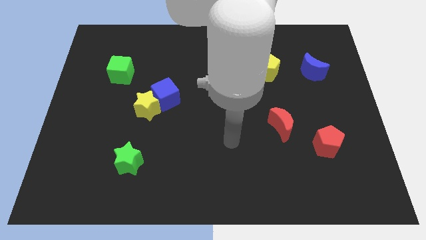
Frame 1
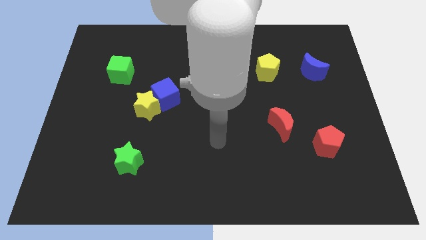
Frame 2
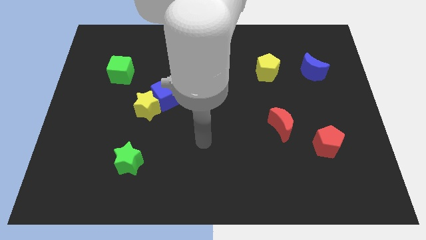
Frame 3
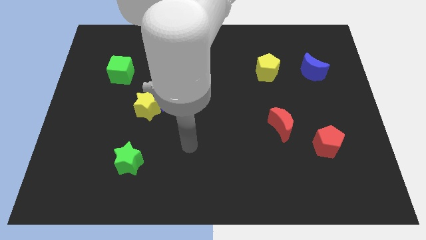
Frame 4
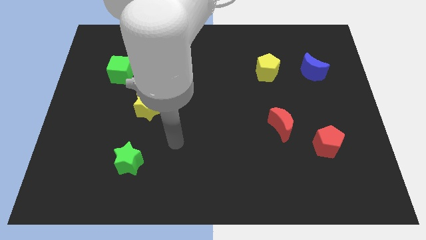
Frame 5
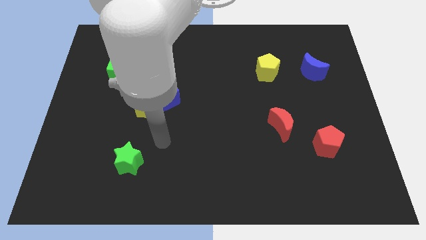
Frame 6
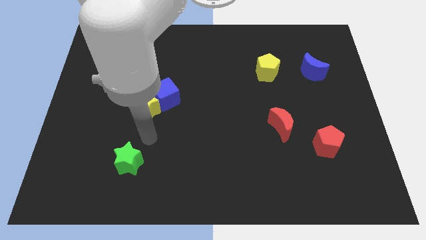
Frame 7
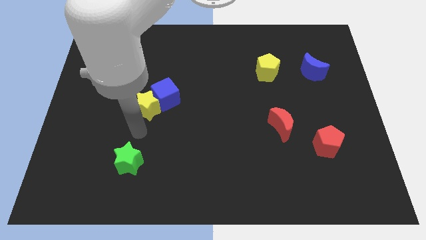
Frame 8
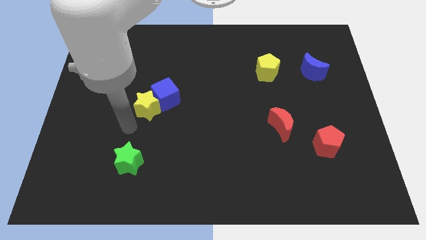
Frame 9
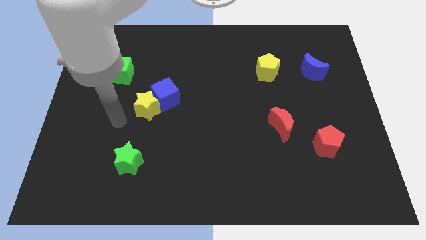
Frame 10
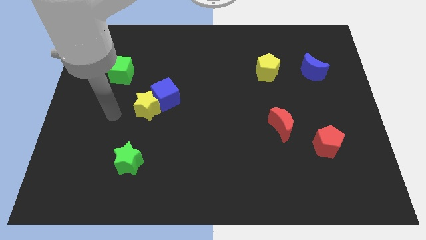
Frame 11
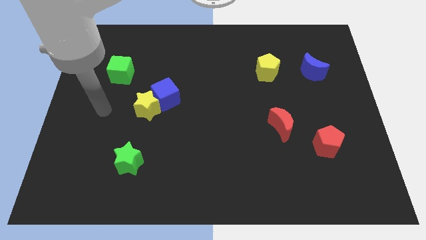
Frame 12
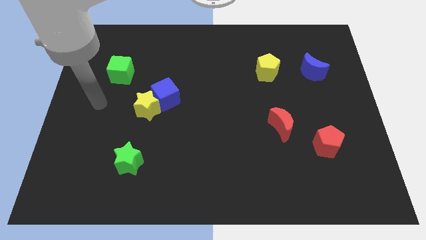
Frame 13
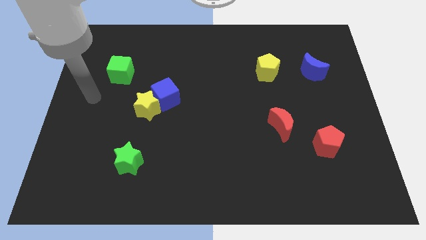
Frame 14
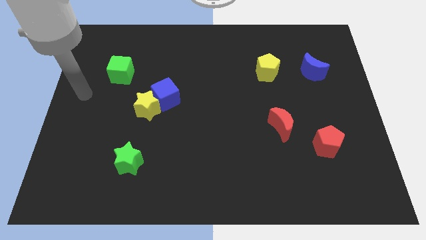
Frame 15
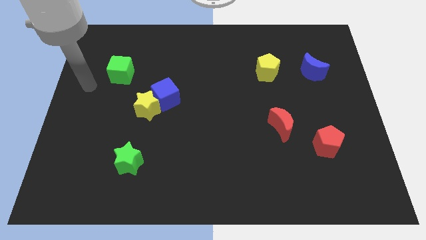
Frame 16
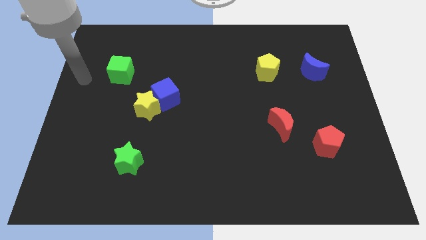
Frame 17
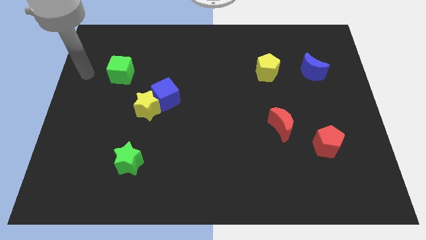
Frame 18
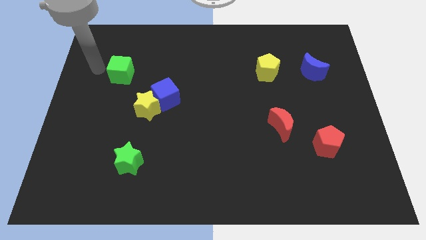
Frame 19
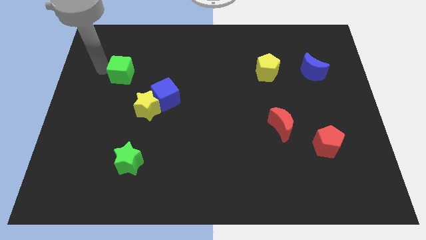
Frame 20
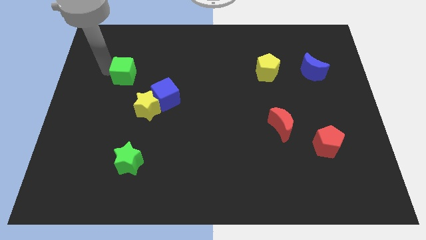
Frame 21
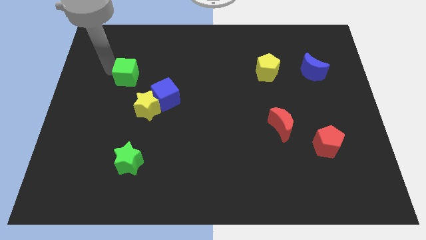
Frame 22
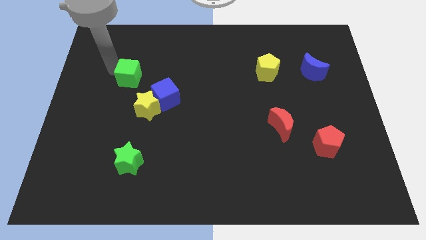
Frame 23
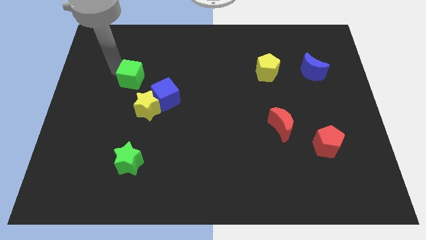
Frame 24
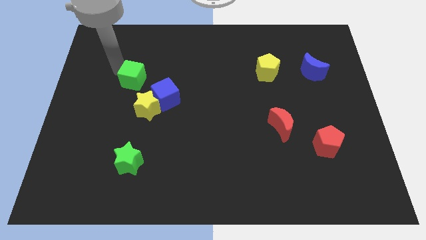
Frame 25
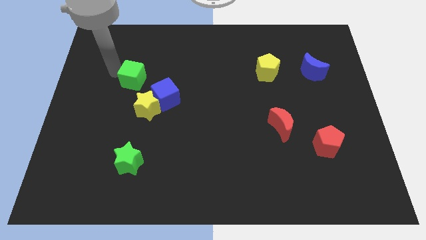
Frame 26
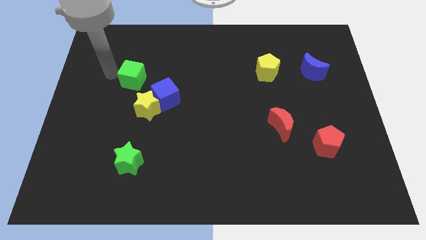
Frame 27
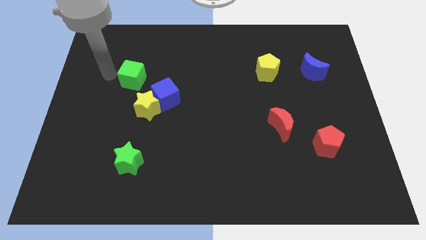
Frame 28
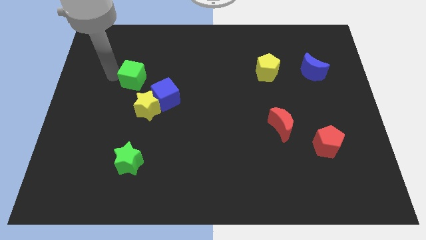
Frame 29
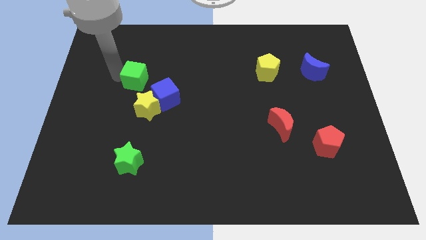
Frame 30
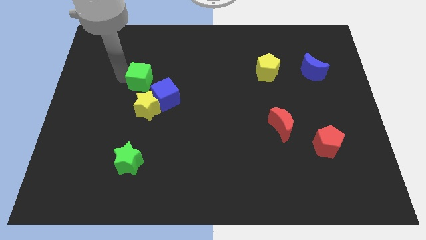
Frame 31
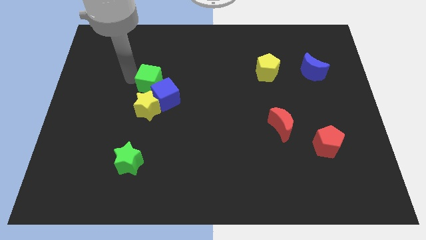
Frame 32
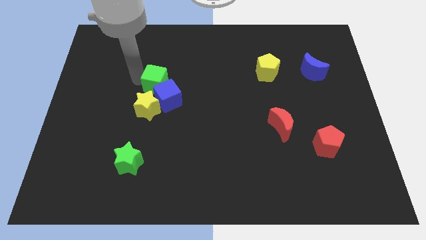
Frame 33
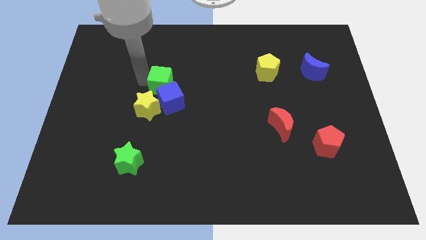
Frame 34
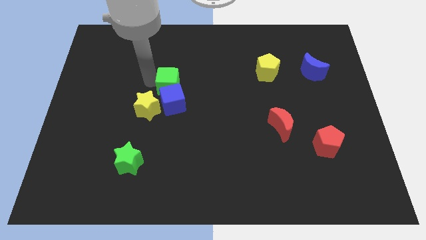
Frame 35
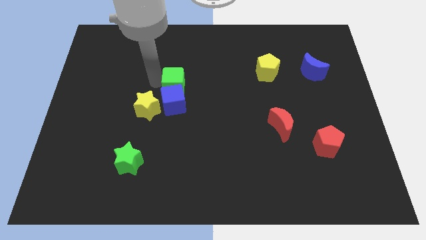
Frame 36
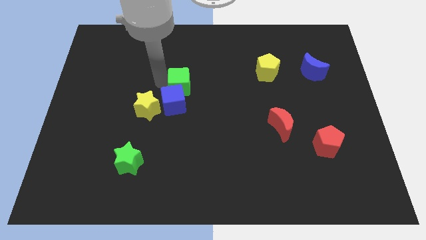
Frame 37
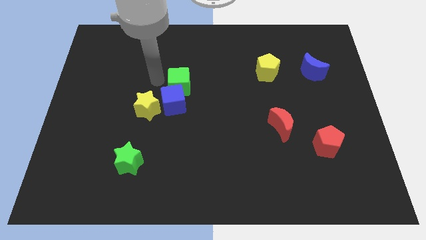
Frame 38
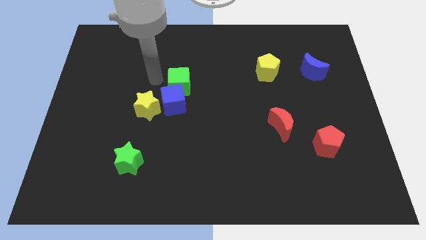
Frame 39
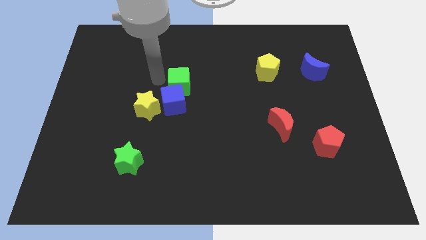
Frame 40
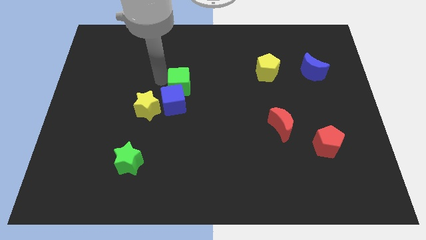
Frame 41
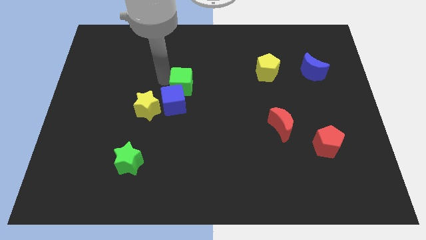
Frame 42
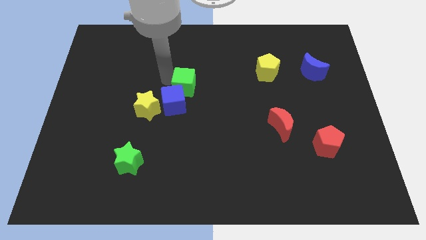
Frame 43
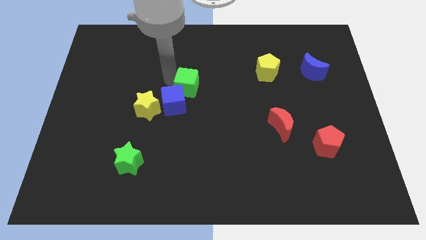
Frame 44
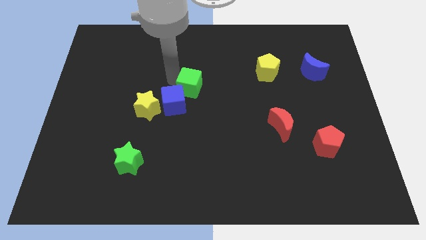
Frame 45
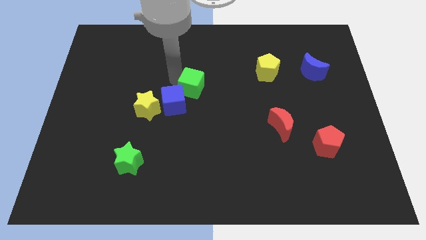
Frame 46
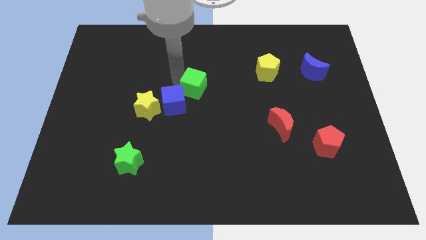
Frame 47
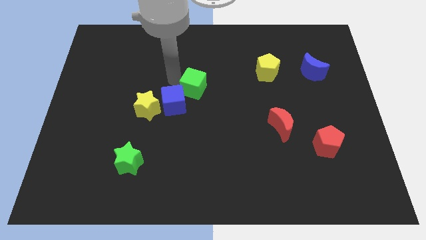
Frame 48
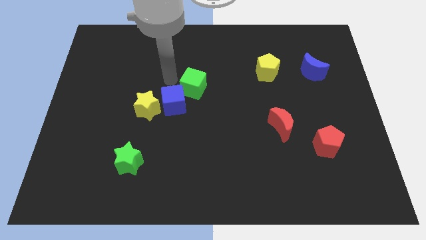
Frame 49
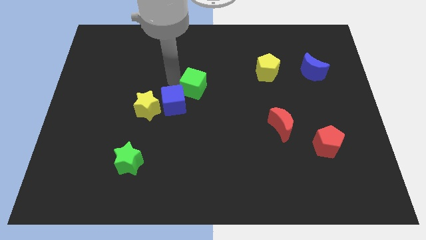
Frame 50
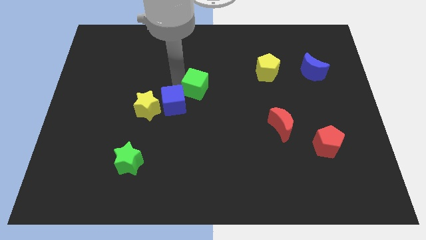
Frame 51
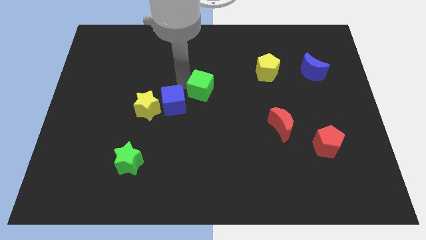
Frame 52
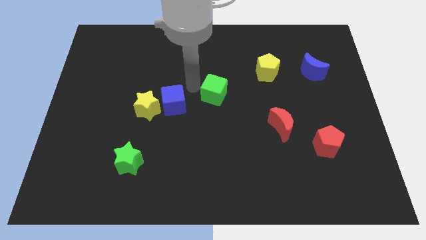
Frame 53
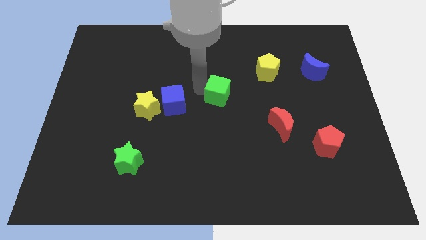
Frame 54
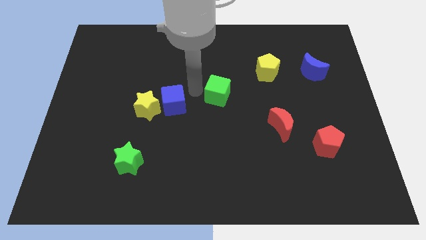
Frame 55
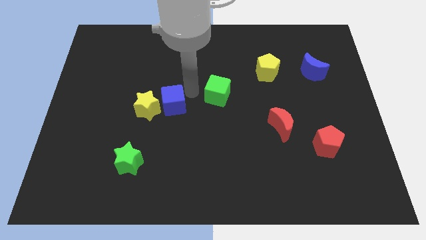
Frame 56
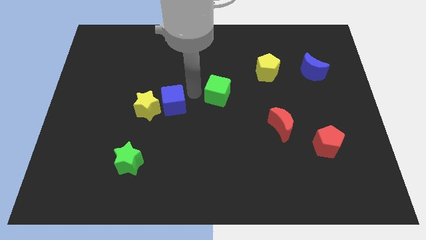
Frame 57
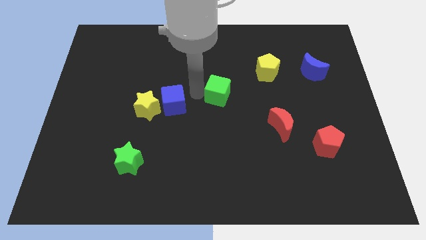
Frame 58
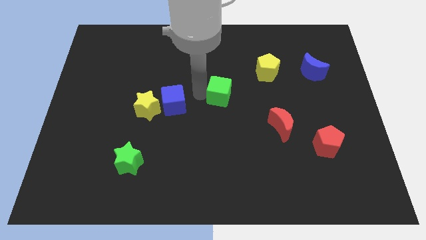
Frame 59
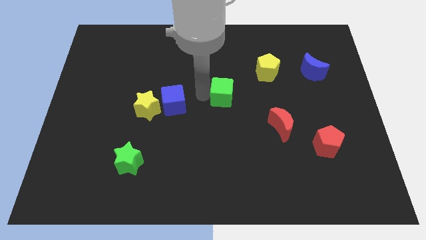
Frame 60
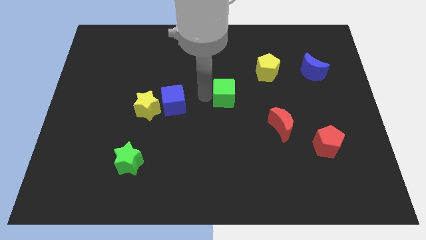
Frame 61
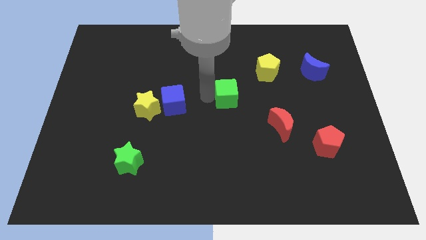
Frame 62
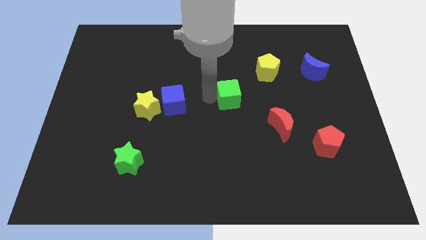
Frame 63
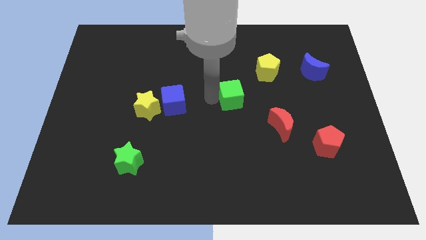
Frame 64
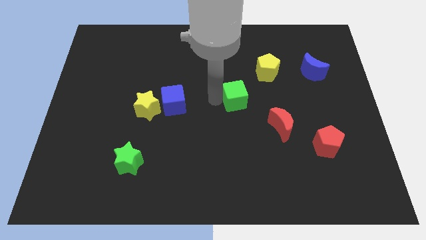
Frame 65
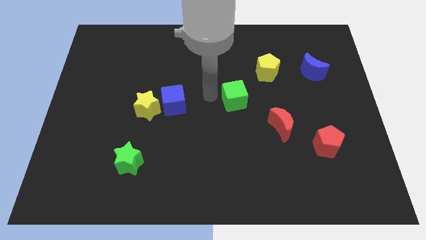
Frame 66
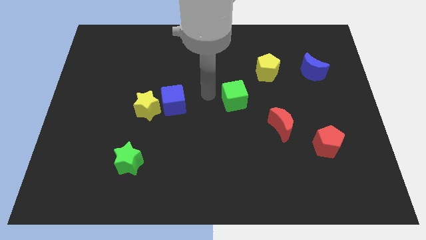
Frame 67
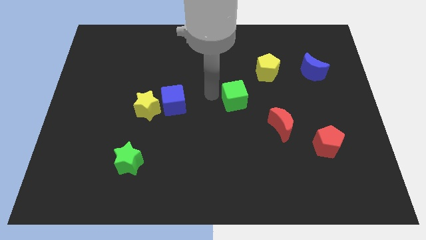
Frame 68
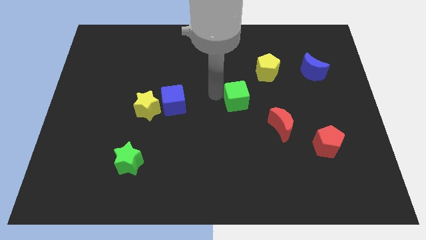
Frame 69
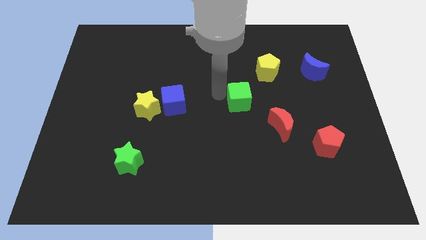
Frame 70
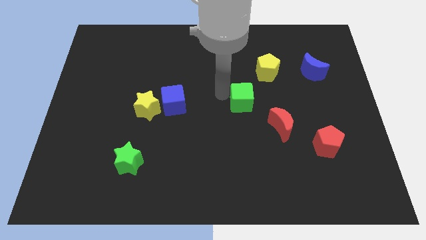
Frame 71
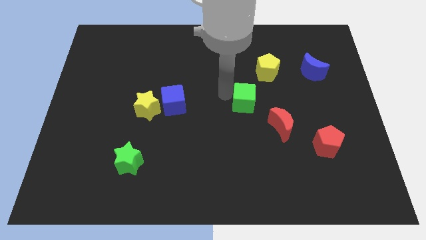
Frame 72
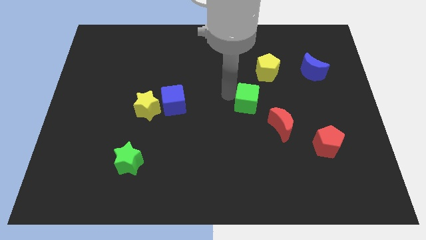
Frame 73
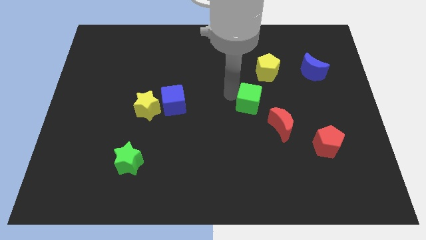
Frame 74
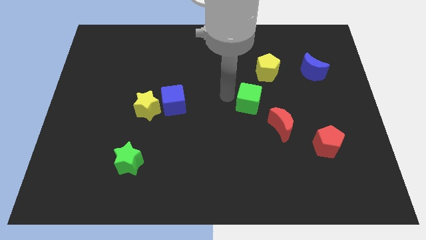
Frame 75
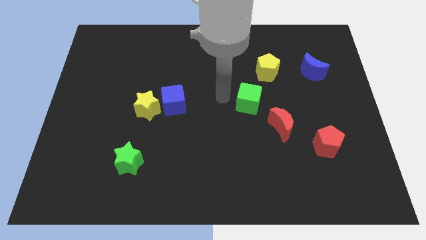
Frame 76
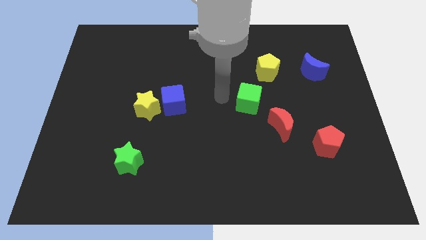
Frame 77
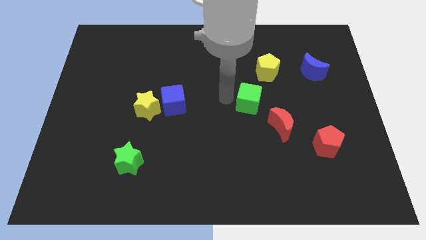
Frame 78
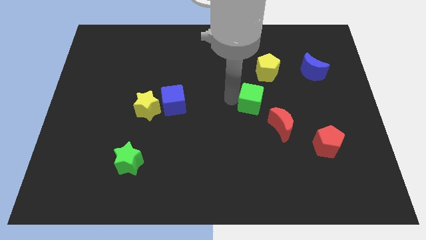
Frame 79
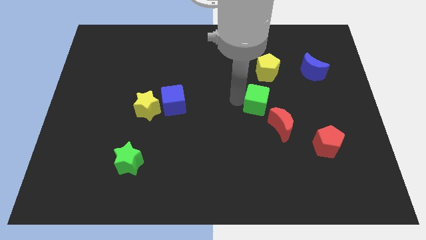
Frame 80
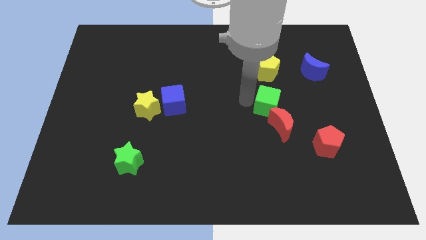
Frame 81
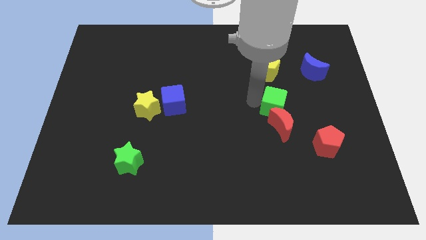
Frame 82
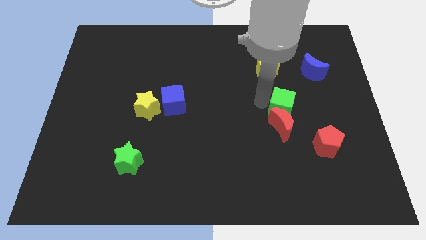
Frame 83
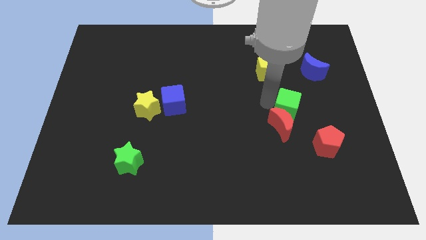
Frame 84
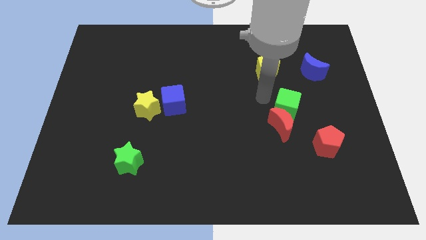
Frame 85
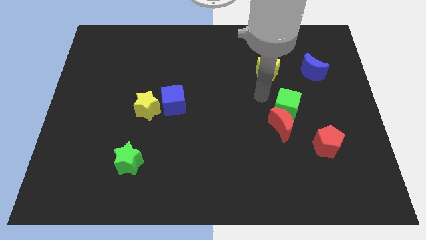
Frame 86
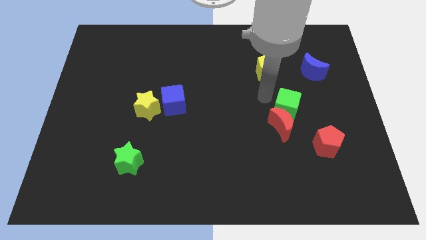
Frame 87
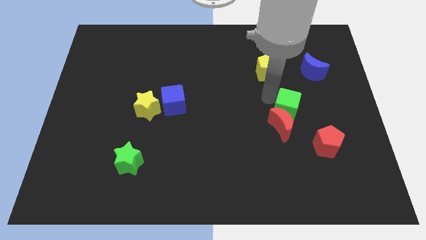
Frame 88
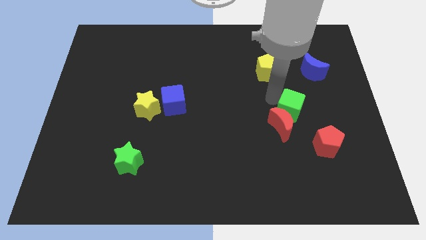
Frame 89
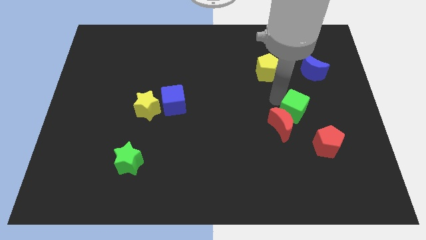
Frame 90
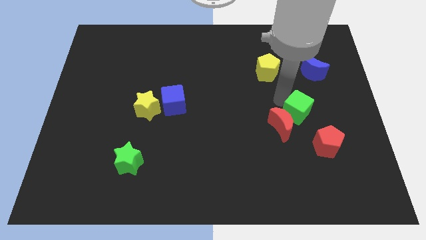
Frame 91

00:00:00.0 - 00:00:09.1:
push the green cube to the right of the red moon
